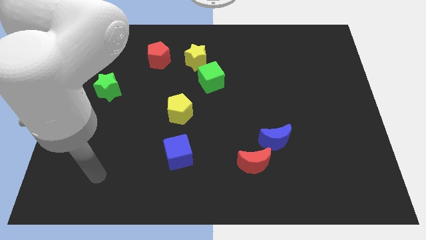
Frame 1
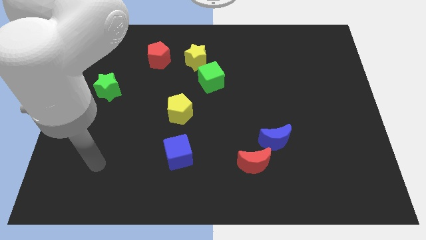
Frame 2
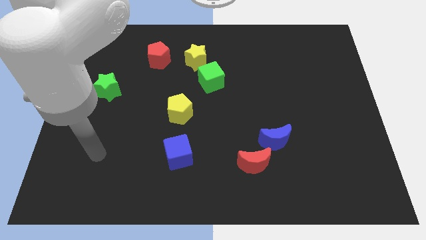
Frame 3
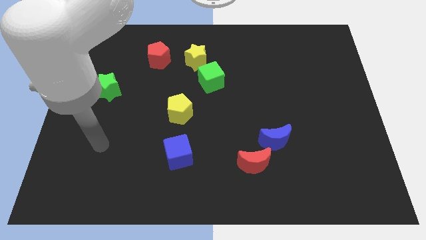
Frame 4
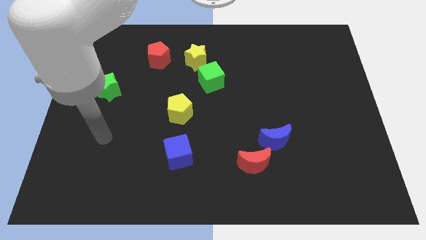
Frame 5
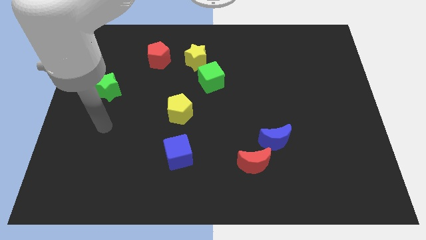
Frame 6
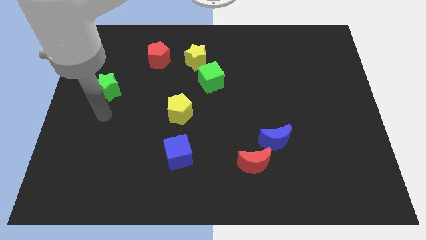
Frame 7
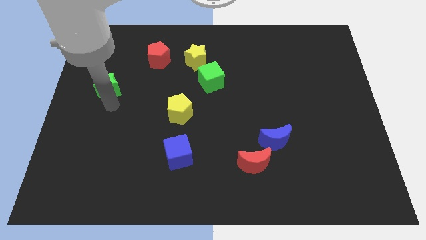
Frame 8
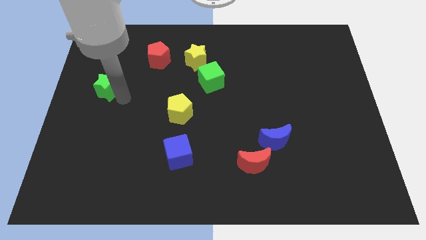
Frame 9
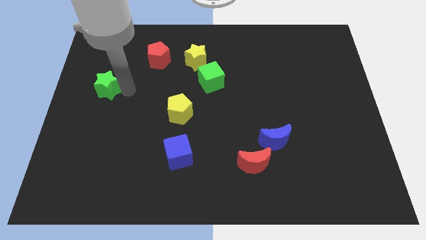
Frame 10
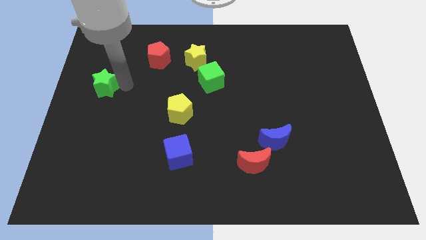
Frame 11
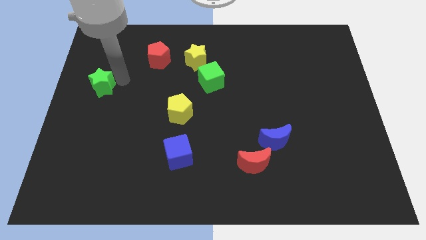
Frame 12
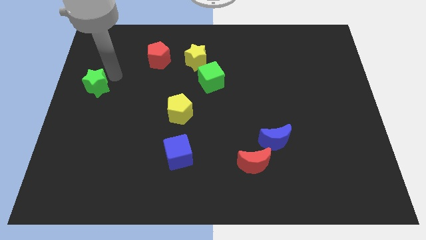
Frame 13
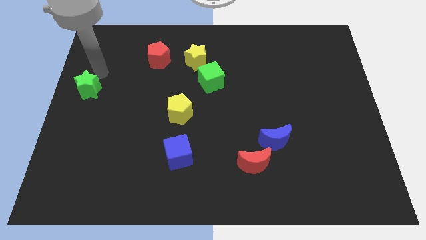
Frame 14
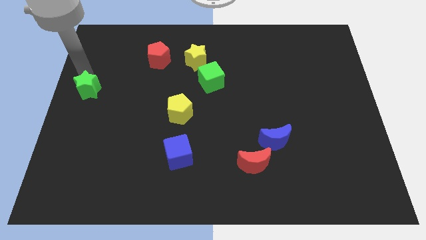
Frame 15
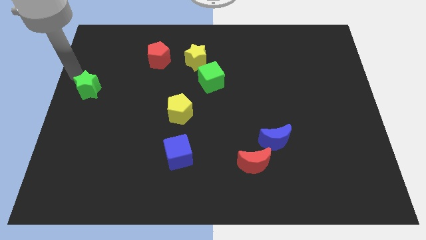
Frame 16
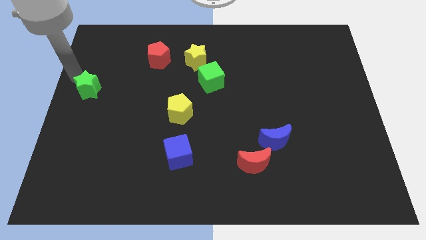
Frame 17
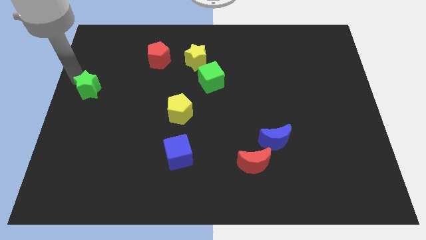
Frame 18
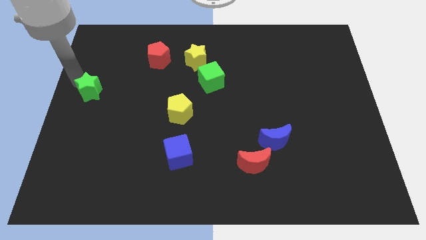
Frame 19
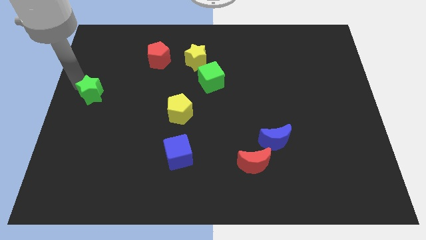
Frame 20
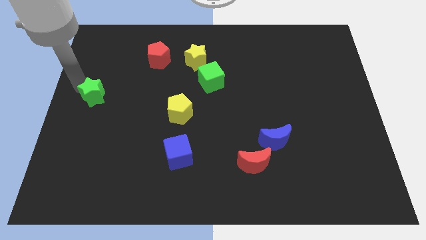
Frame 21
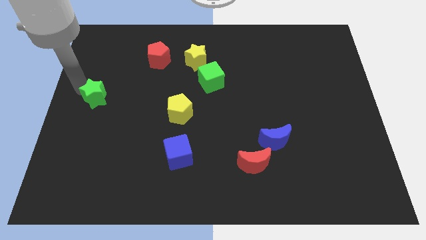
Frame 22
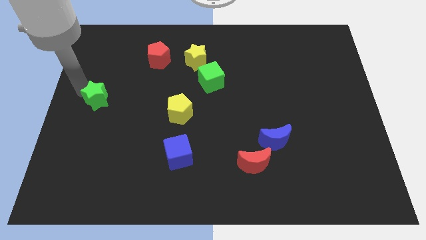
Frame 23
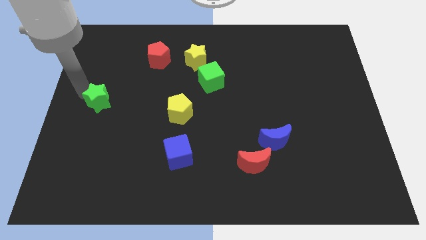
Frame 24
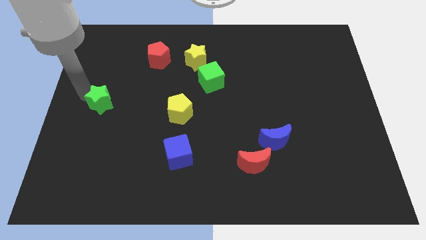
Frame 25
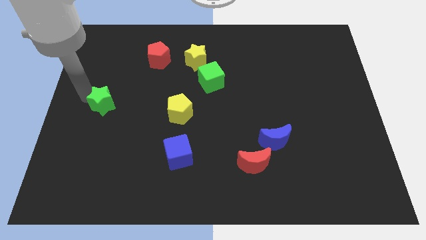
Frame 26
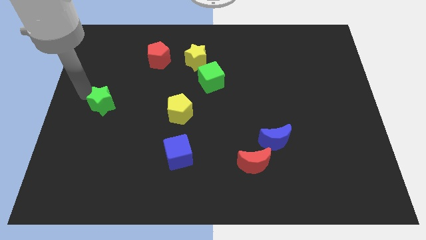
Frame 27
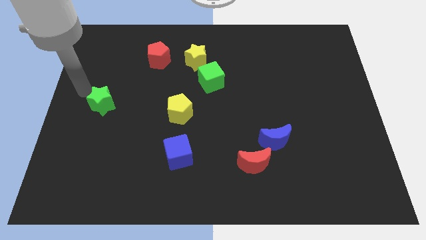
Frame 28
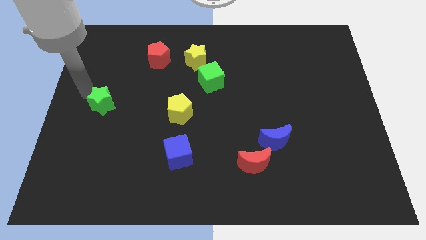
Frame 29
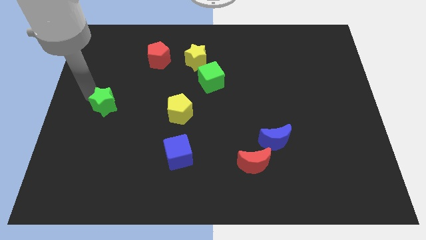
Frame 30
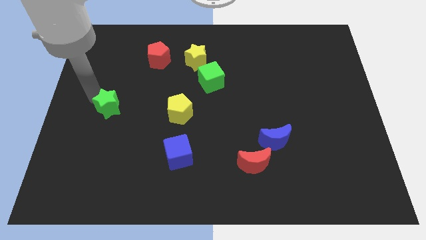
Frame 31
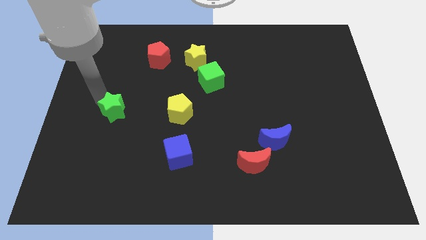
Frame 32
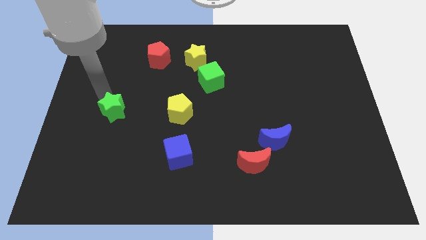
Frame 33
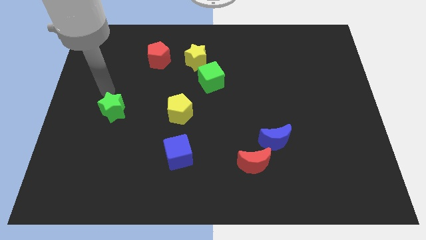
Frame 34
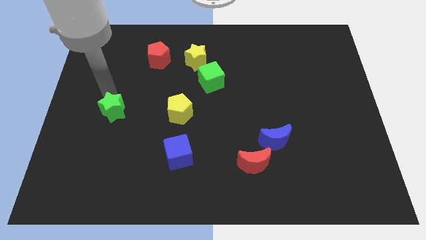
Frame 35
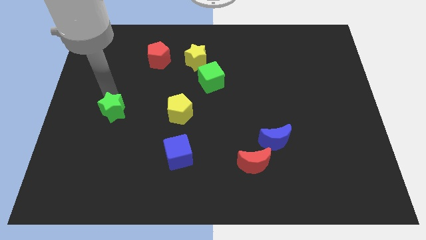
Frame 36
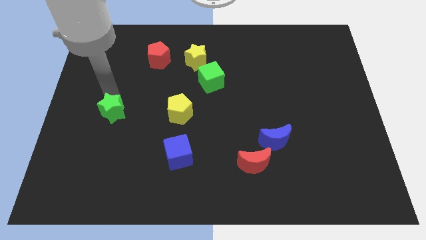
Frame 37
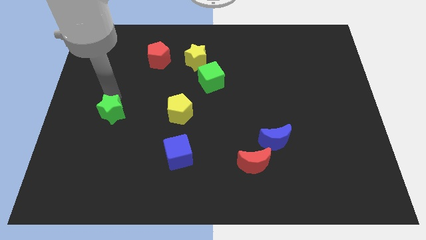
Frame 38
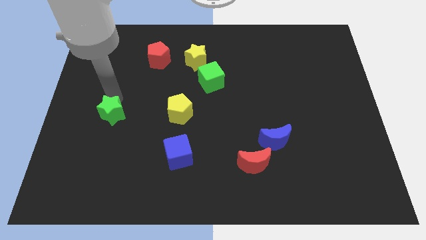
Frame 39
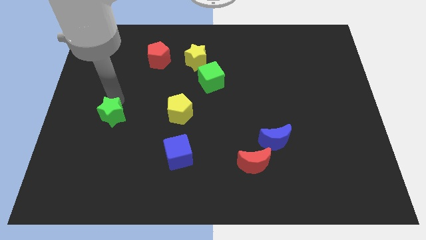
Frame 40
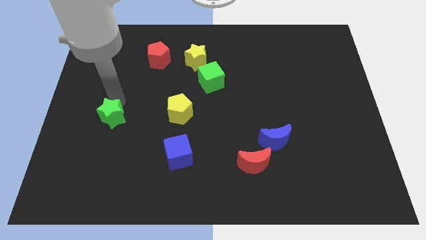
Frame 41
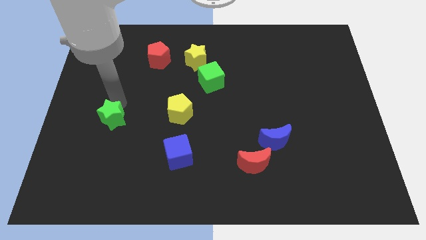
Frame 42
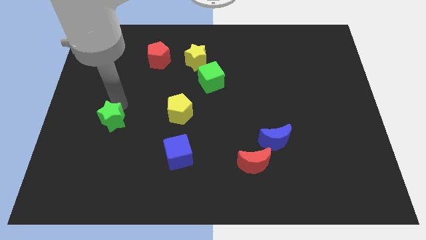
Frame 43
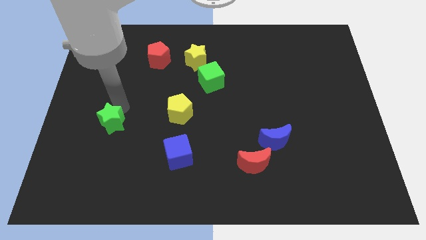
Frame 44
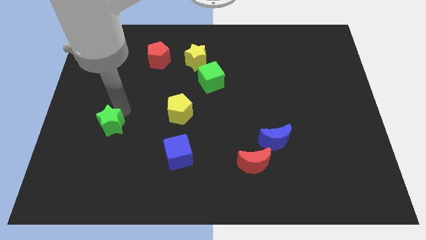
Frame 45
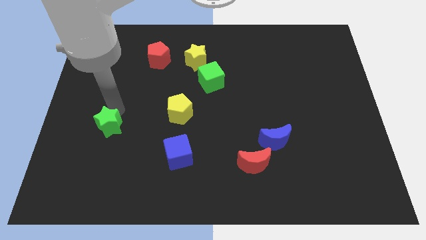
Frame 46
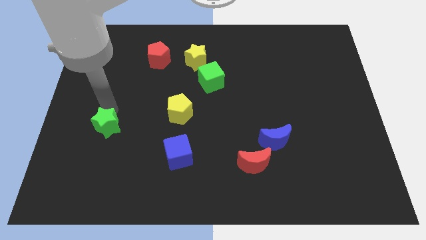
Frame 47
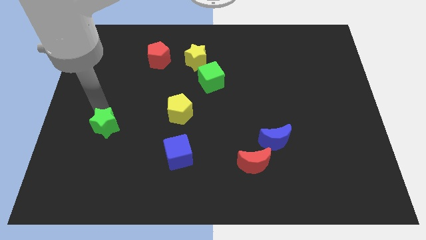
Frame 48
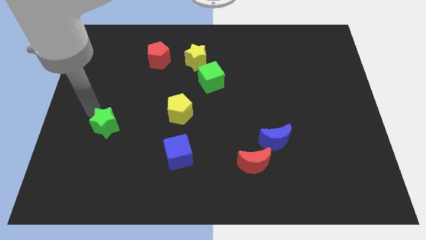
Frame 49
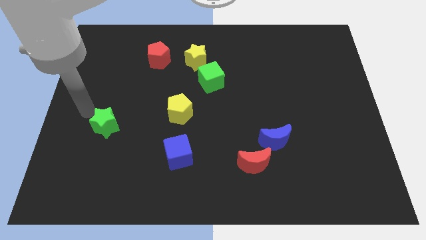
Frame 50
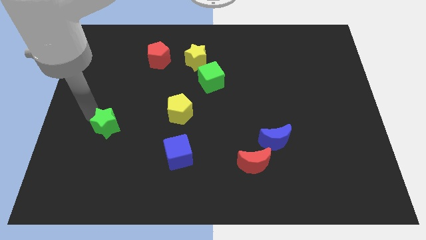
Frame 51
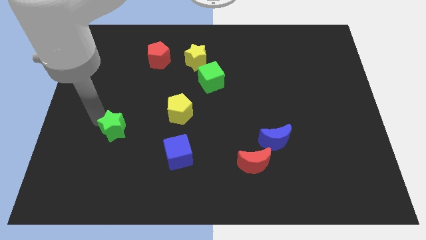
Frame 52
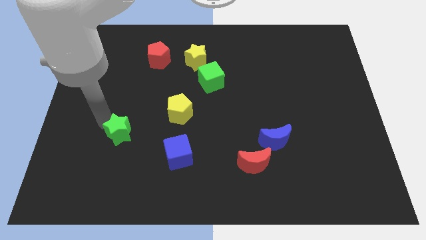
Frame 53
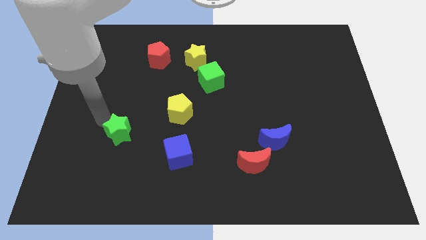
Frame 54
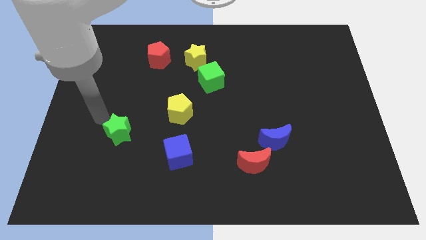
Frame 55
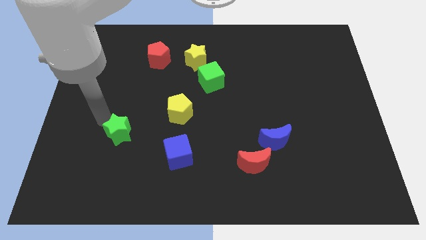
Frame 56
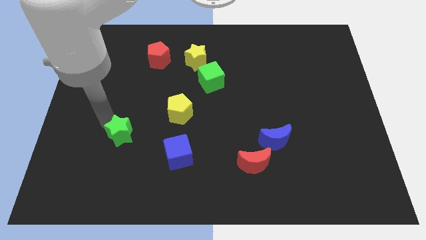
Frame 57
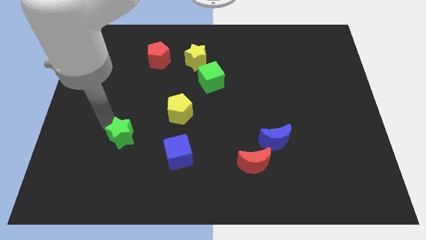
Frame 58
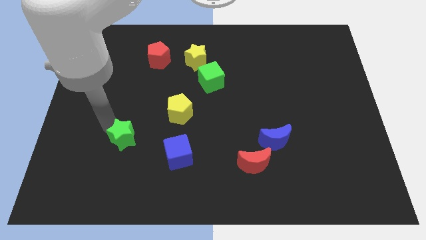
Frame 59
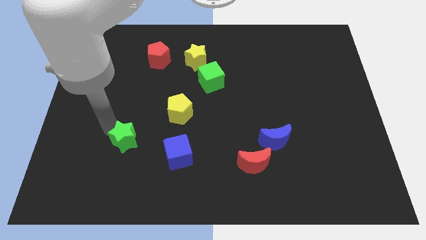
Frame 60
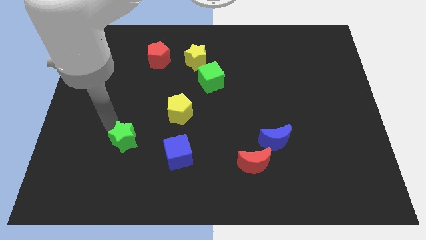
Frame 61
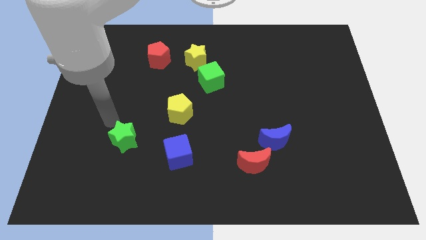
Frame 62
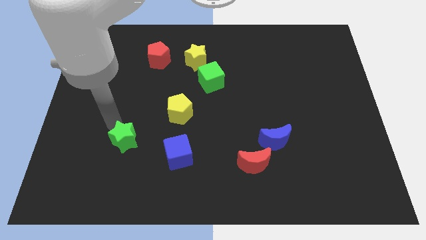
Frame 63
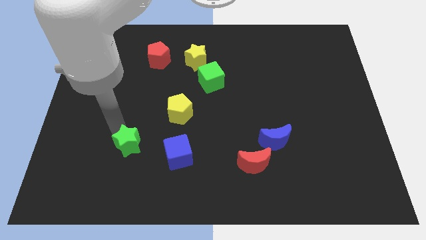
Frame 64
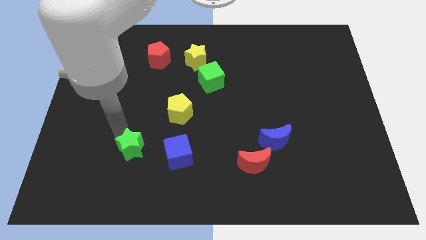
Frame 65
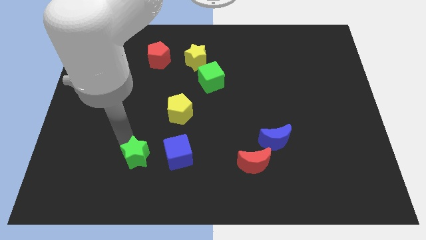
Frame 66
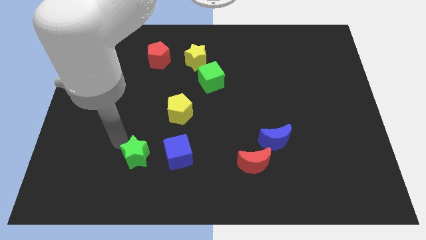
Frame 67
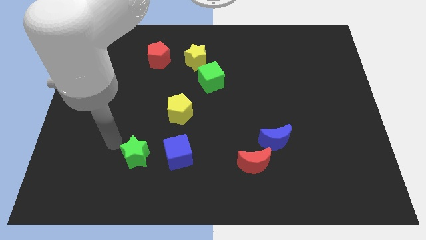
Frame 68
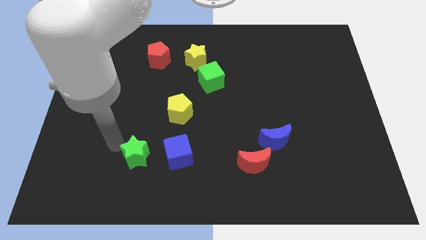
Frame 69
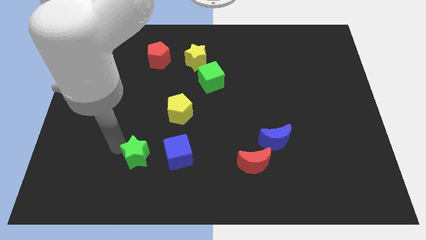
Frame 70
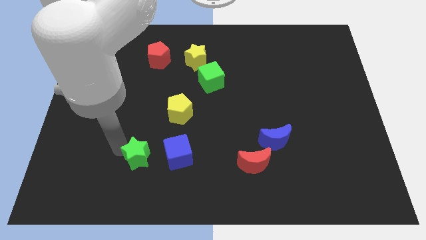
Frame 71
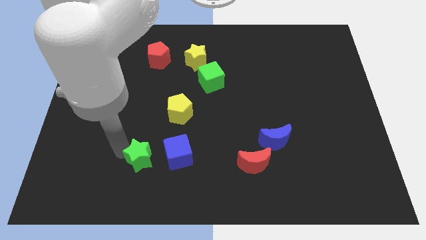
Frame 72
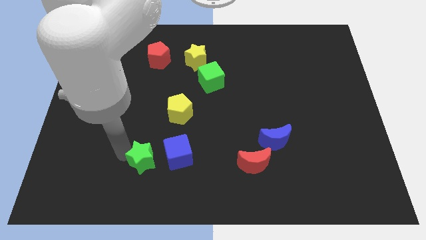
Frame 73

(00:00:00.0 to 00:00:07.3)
slide the green star diagonally downwards and to the right
